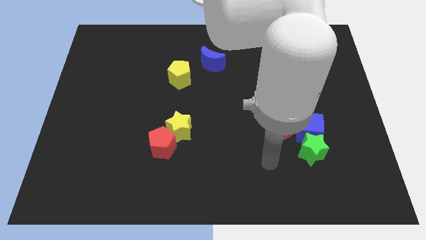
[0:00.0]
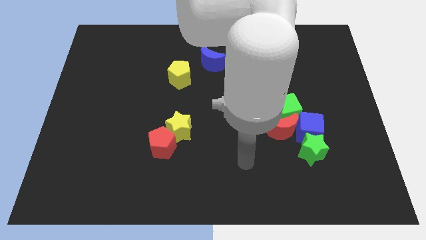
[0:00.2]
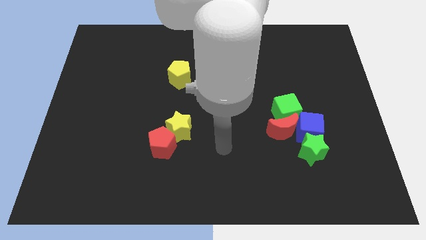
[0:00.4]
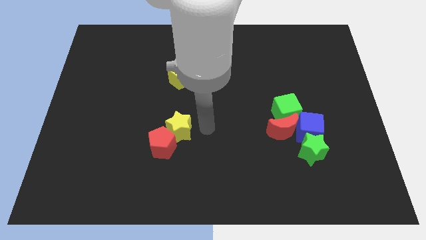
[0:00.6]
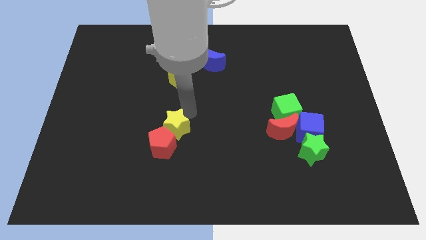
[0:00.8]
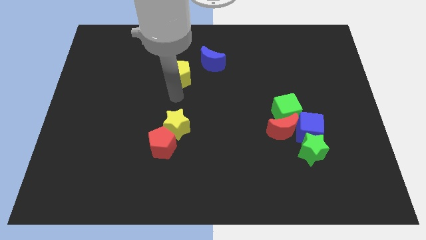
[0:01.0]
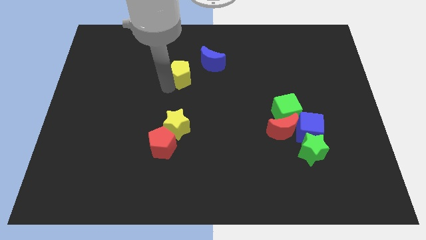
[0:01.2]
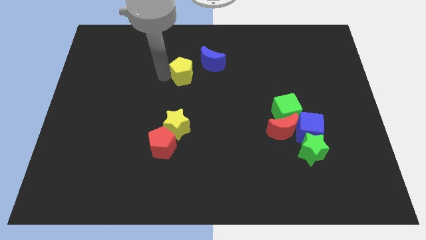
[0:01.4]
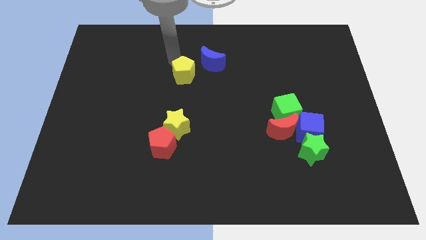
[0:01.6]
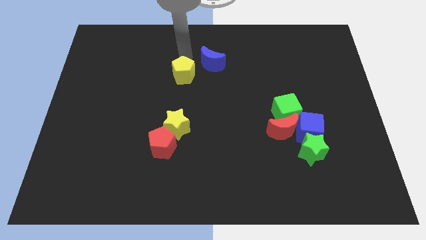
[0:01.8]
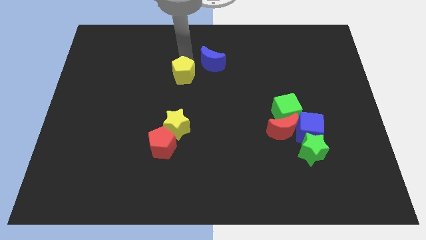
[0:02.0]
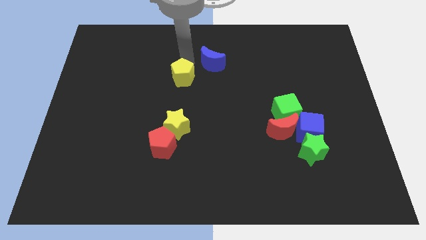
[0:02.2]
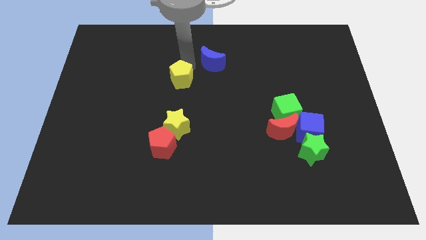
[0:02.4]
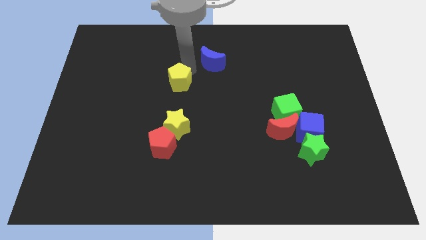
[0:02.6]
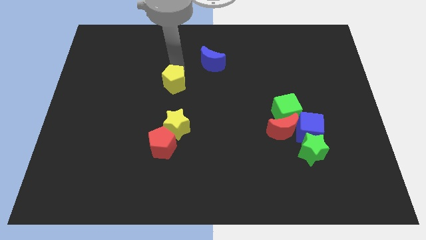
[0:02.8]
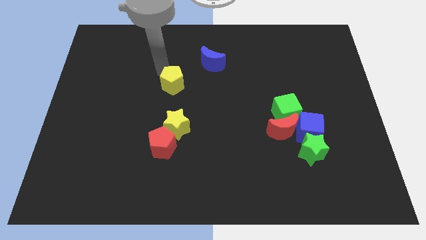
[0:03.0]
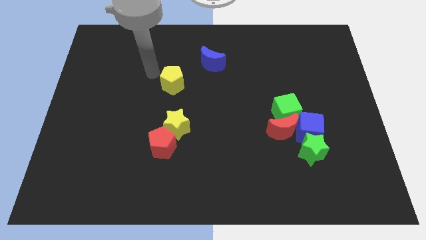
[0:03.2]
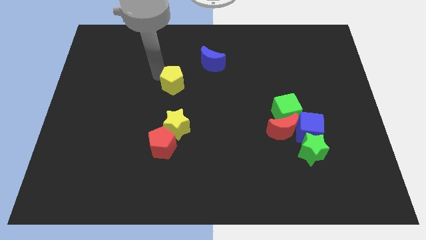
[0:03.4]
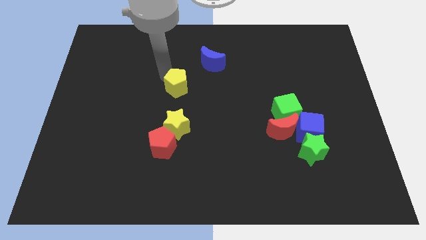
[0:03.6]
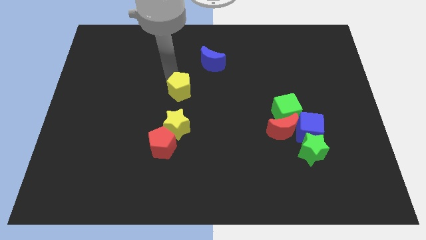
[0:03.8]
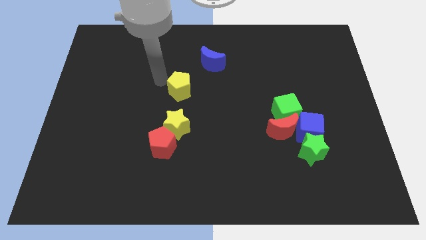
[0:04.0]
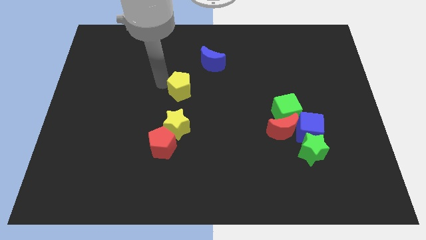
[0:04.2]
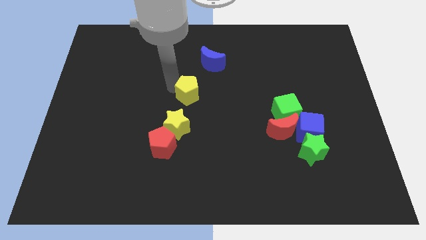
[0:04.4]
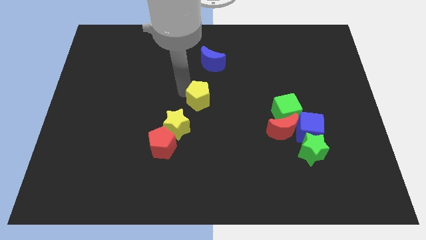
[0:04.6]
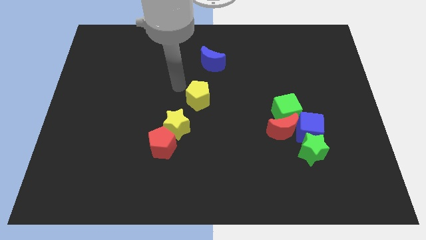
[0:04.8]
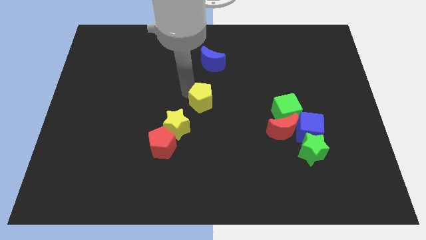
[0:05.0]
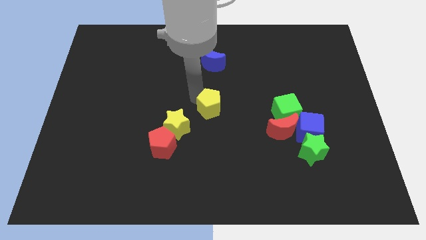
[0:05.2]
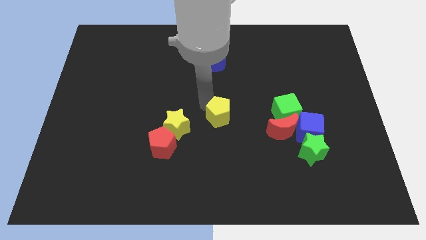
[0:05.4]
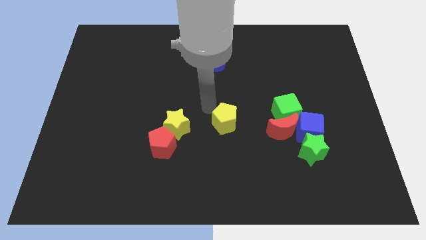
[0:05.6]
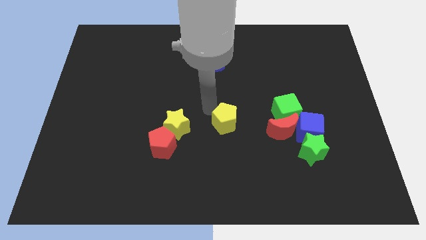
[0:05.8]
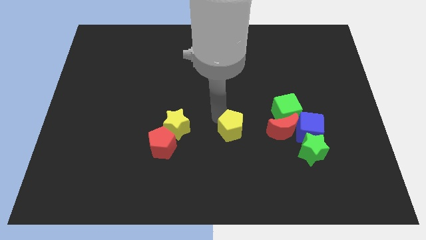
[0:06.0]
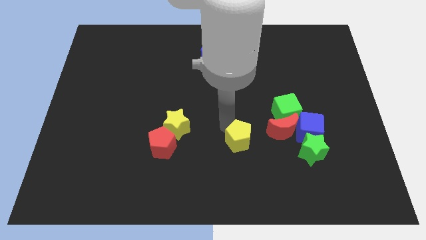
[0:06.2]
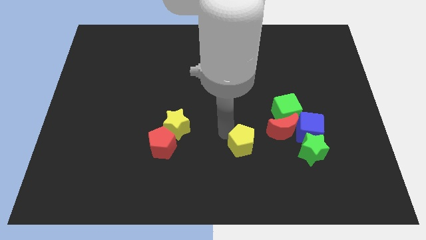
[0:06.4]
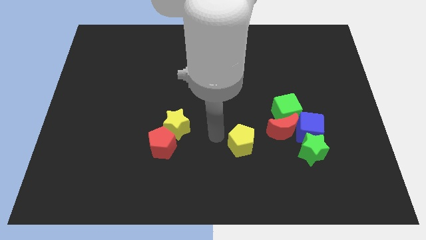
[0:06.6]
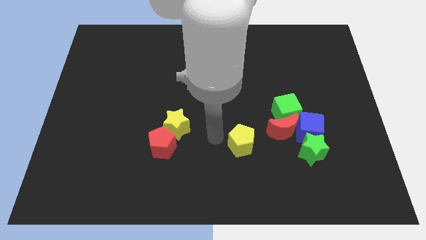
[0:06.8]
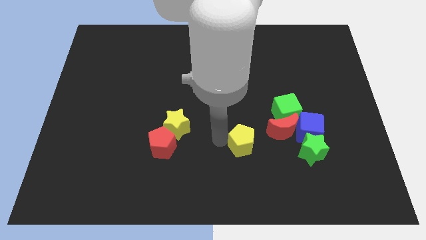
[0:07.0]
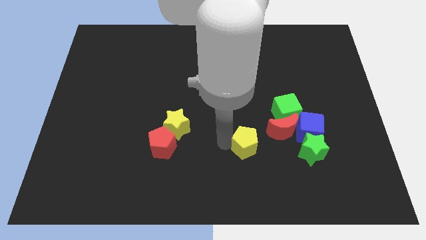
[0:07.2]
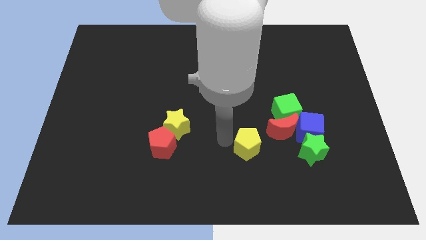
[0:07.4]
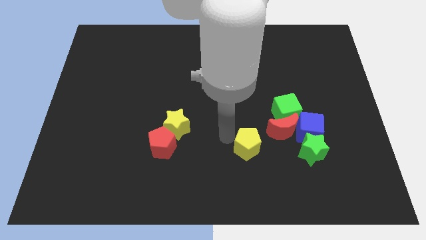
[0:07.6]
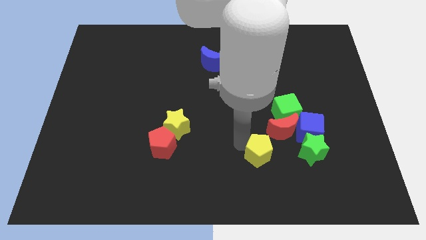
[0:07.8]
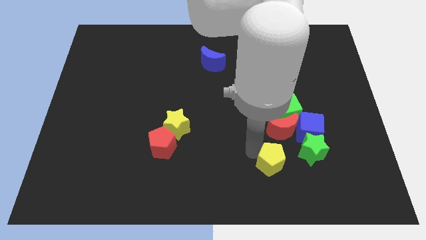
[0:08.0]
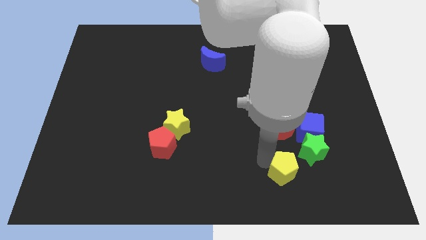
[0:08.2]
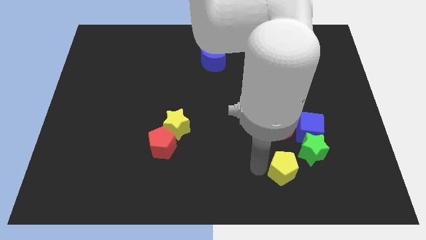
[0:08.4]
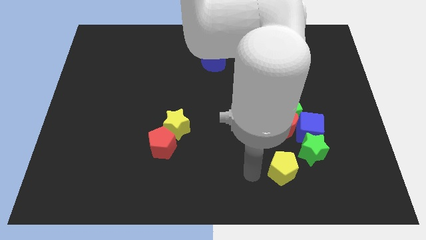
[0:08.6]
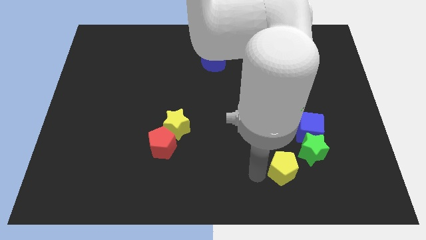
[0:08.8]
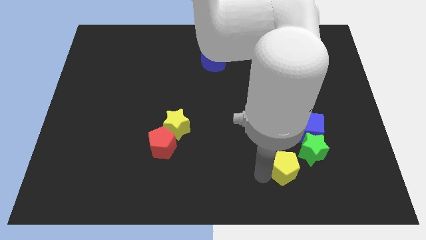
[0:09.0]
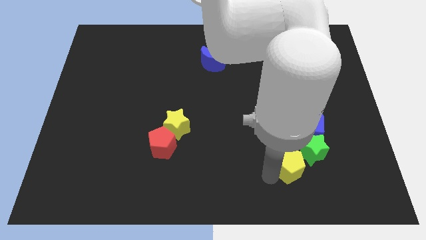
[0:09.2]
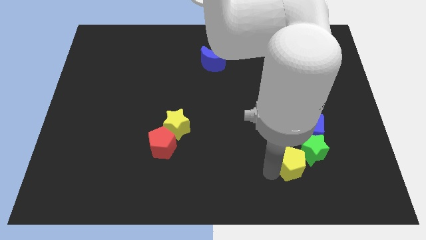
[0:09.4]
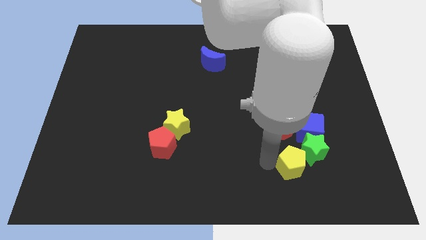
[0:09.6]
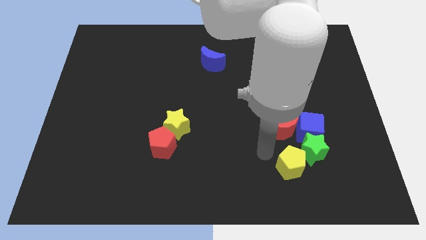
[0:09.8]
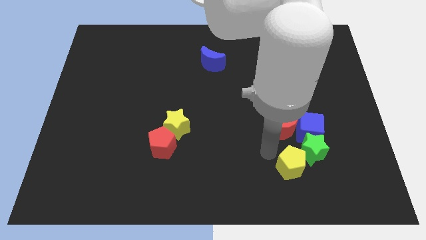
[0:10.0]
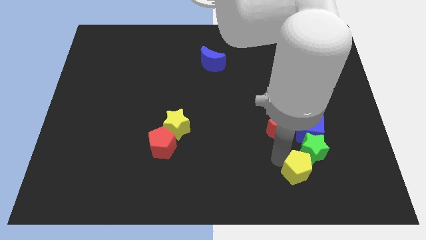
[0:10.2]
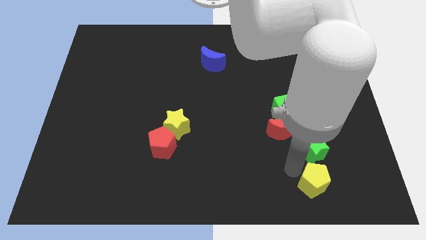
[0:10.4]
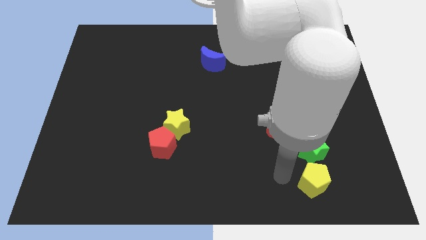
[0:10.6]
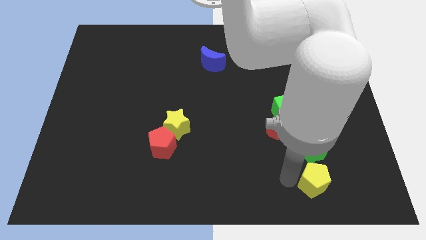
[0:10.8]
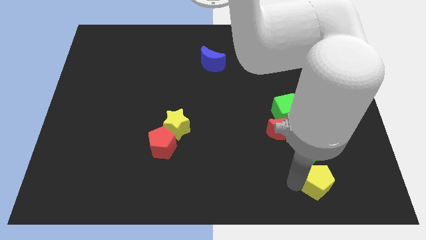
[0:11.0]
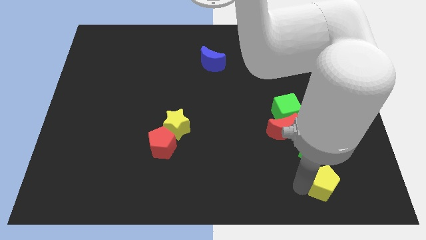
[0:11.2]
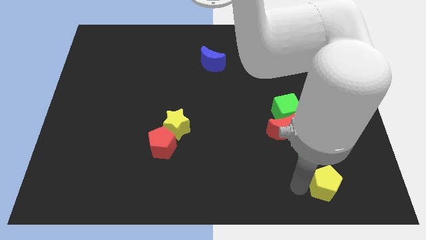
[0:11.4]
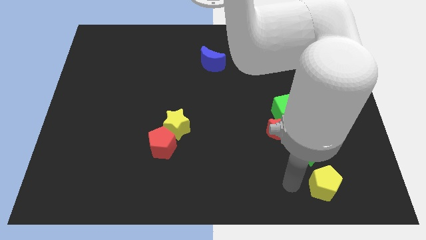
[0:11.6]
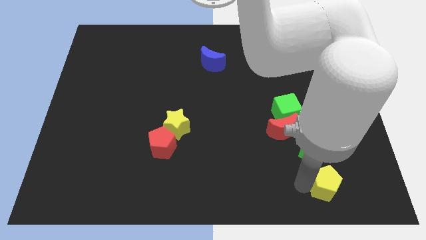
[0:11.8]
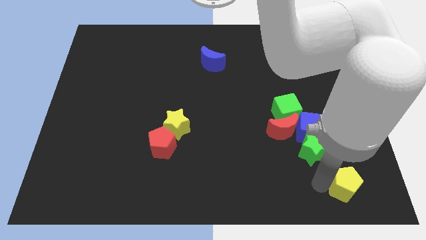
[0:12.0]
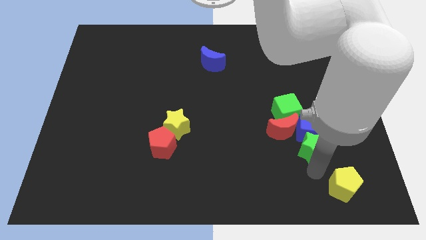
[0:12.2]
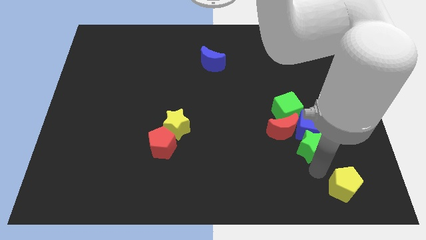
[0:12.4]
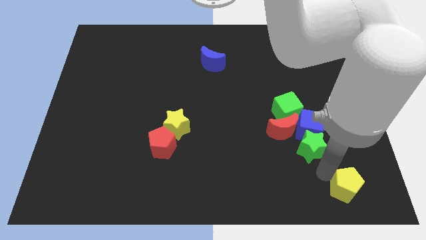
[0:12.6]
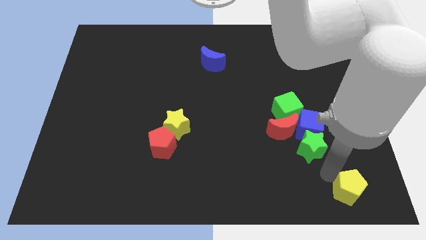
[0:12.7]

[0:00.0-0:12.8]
slide the yellow pentagon to the lower right corner

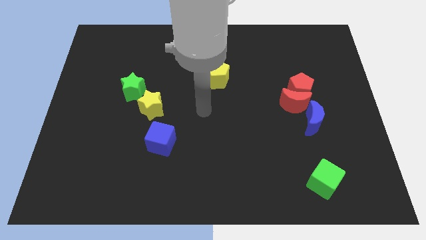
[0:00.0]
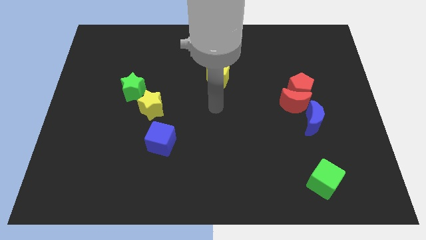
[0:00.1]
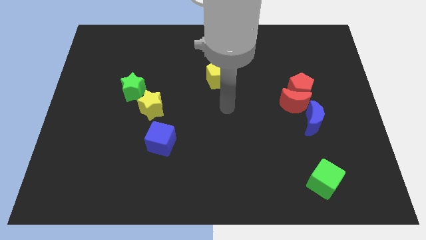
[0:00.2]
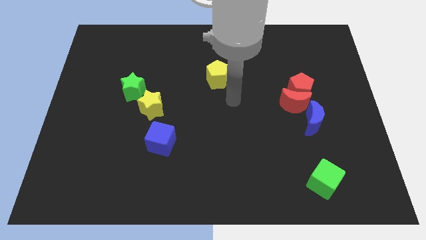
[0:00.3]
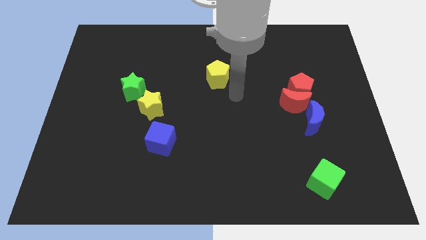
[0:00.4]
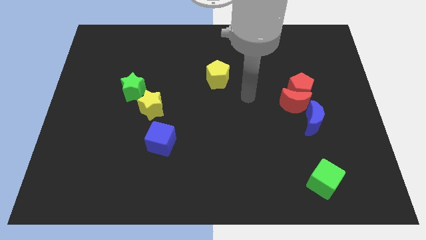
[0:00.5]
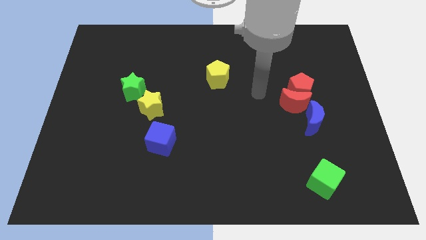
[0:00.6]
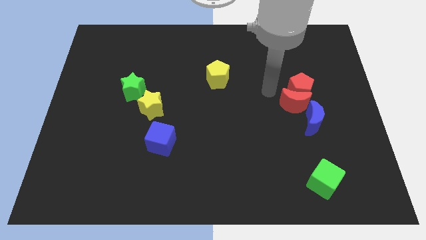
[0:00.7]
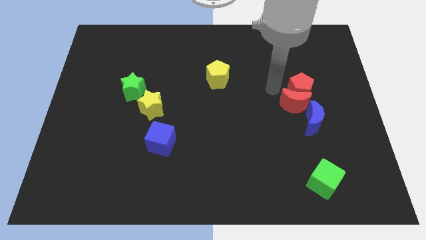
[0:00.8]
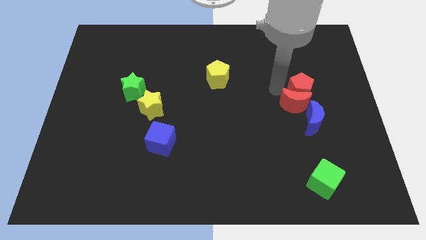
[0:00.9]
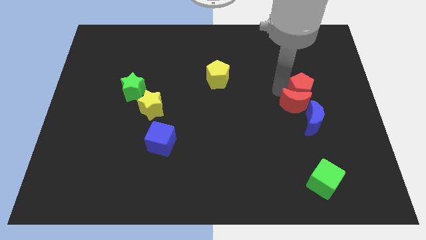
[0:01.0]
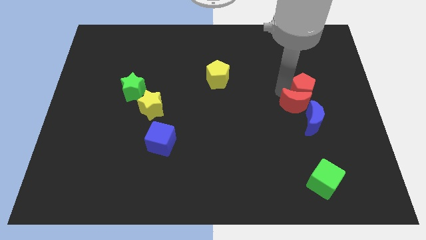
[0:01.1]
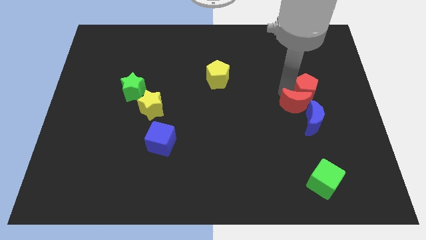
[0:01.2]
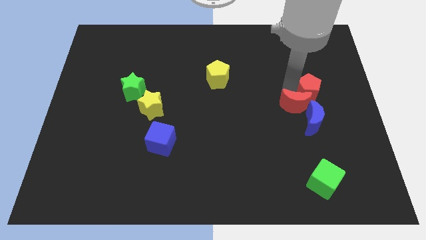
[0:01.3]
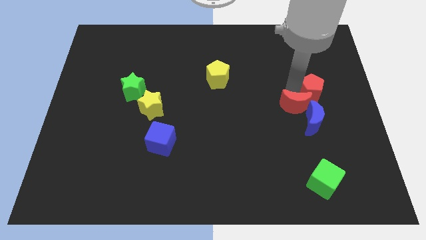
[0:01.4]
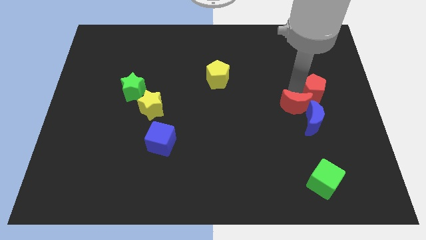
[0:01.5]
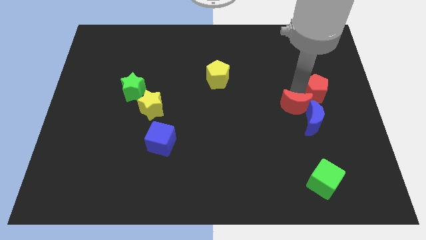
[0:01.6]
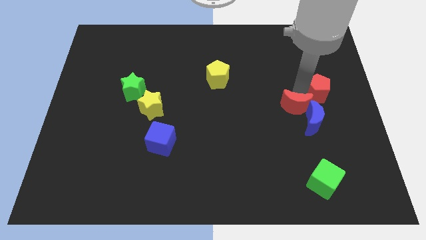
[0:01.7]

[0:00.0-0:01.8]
slide the red pentagon to the center right
